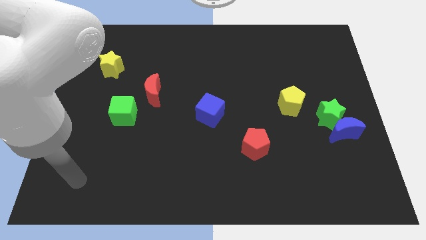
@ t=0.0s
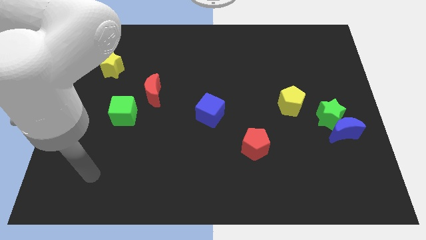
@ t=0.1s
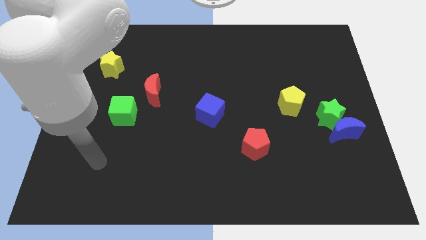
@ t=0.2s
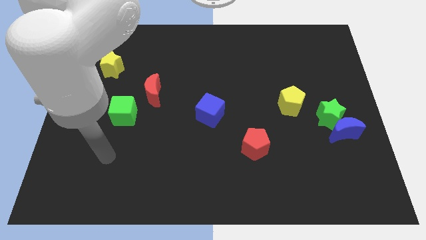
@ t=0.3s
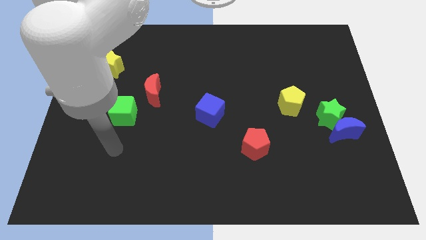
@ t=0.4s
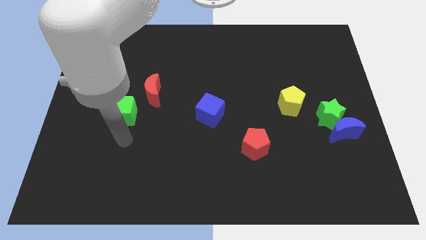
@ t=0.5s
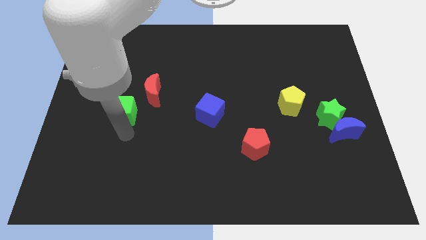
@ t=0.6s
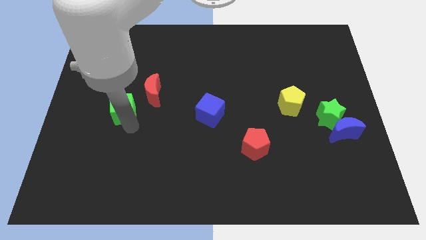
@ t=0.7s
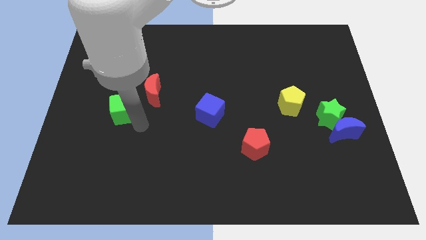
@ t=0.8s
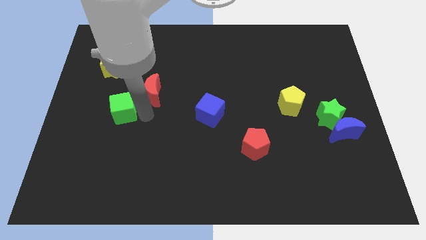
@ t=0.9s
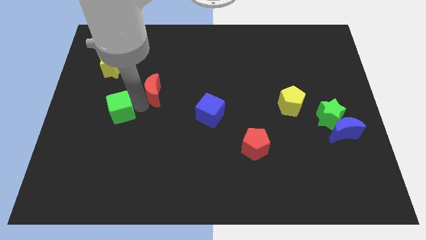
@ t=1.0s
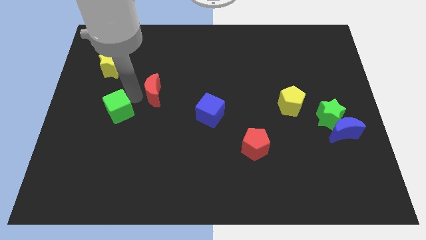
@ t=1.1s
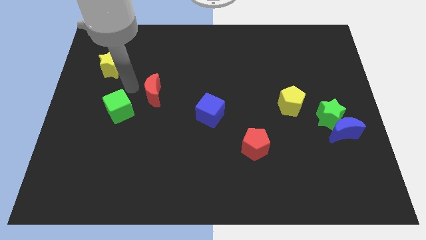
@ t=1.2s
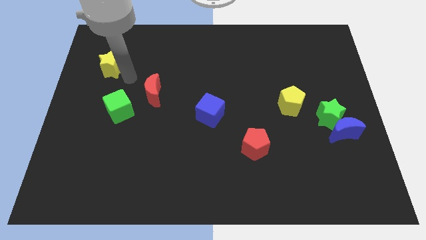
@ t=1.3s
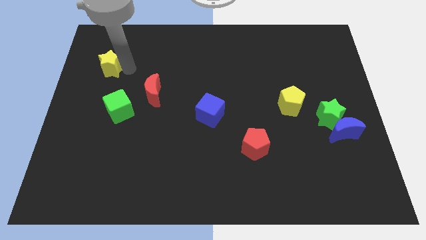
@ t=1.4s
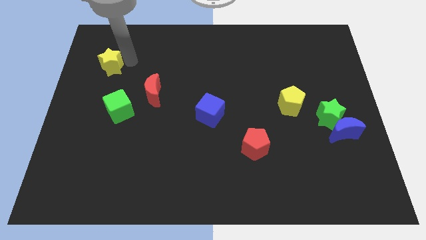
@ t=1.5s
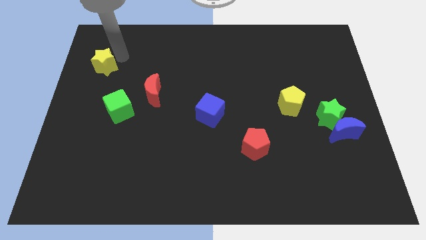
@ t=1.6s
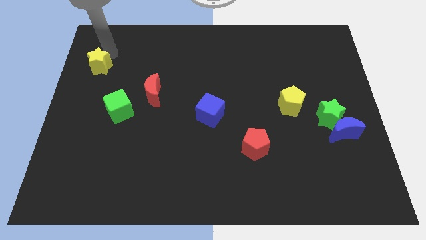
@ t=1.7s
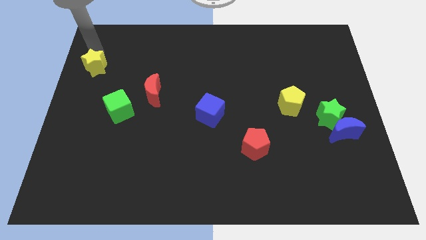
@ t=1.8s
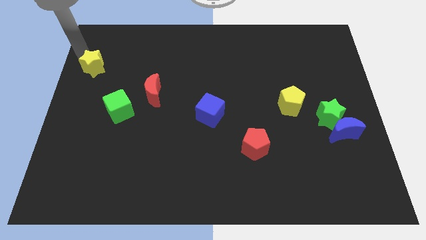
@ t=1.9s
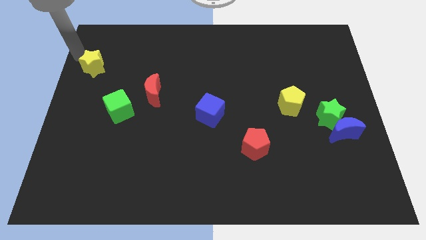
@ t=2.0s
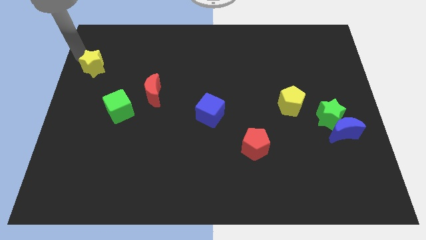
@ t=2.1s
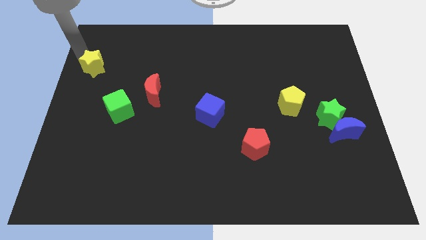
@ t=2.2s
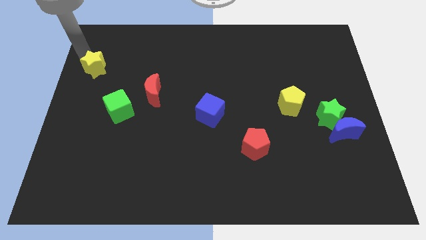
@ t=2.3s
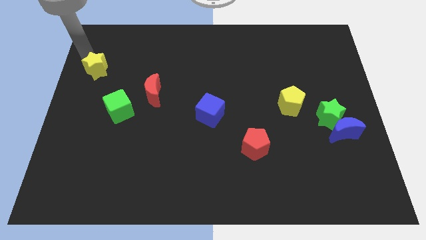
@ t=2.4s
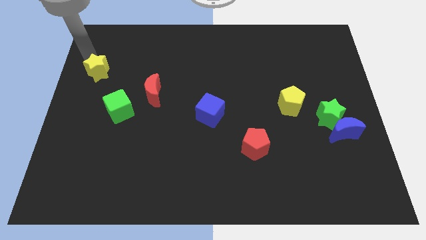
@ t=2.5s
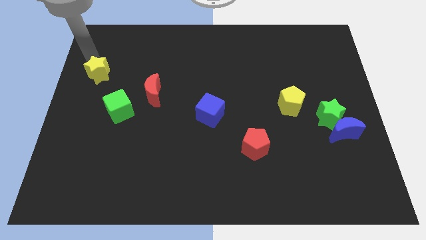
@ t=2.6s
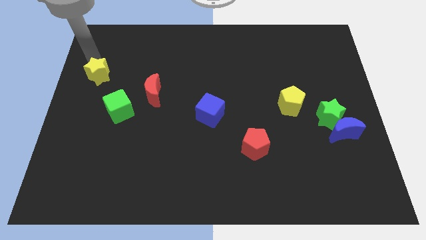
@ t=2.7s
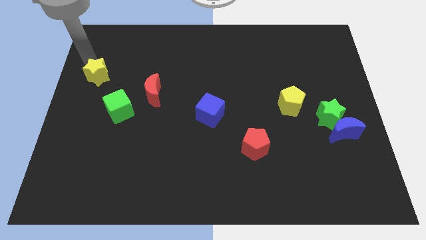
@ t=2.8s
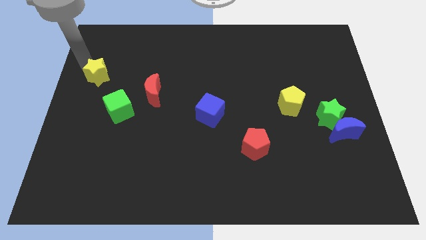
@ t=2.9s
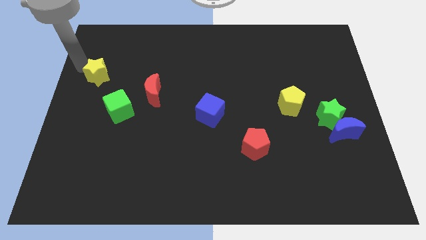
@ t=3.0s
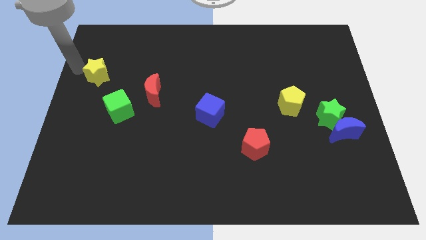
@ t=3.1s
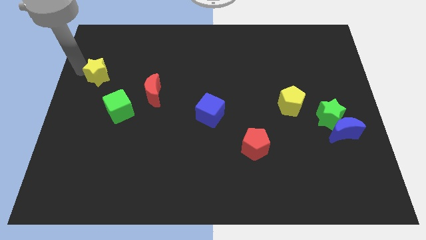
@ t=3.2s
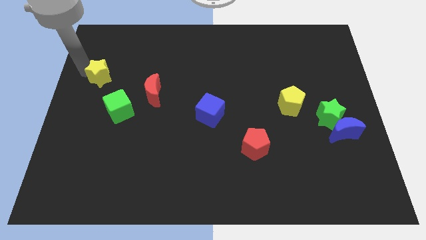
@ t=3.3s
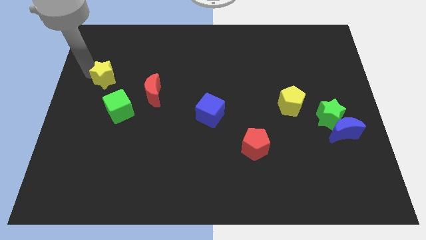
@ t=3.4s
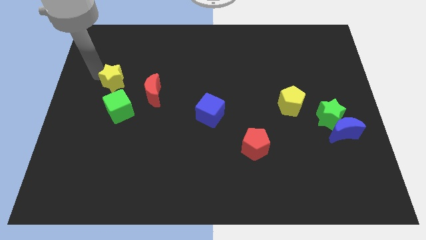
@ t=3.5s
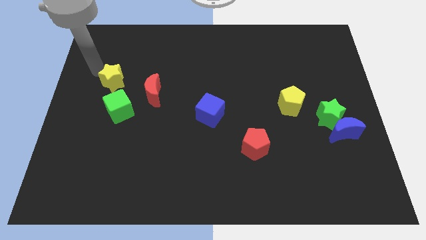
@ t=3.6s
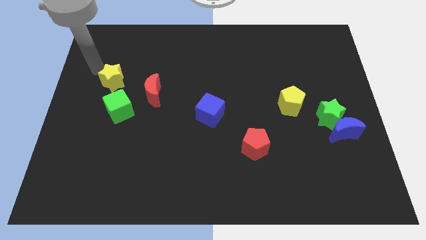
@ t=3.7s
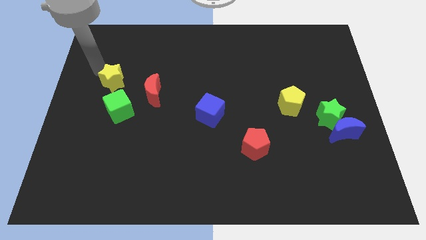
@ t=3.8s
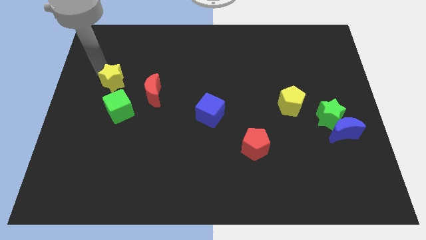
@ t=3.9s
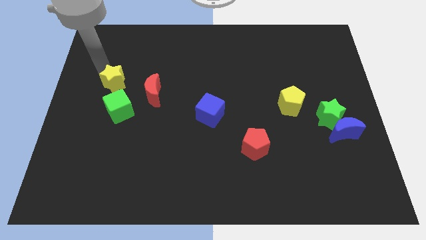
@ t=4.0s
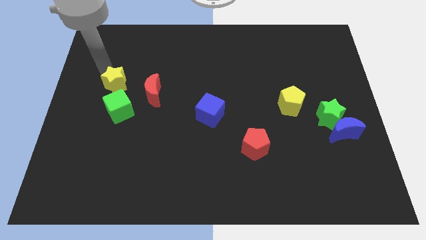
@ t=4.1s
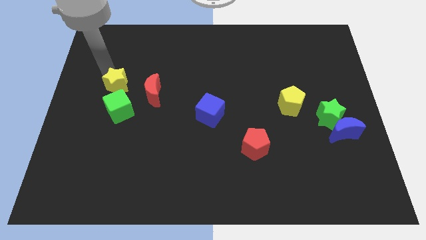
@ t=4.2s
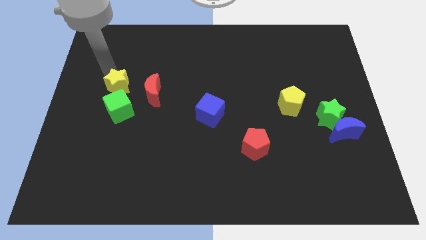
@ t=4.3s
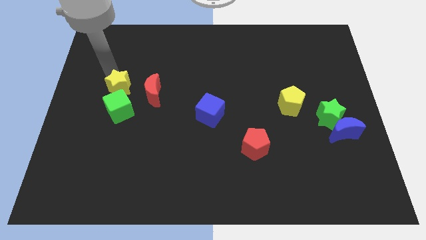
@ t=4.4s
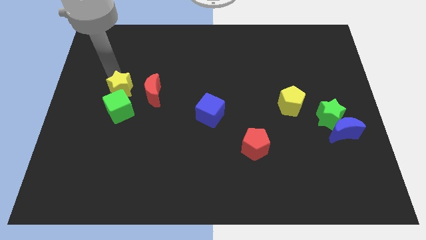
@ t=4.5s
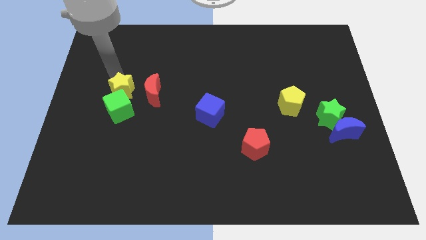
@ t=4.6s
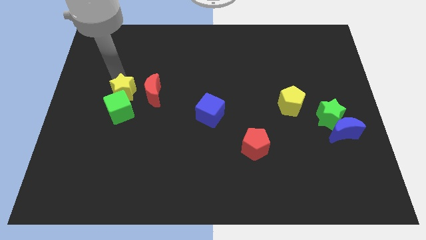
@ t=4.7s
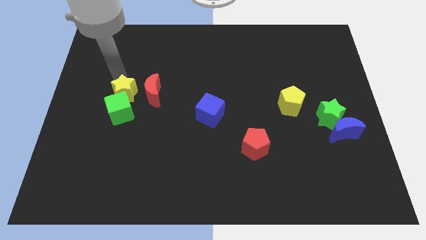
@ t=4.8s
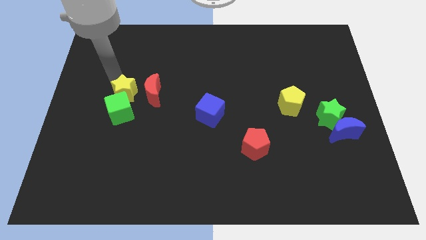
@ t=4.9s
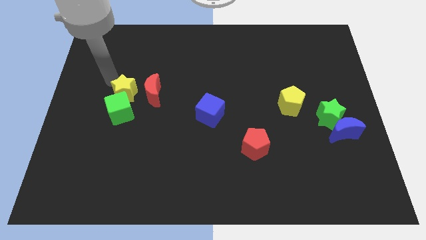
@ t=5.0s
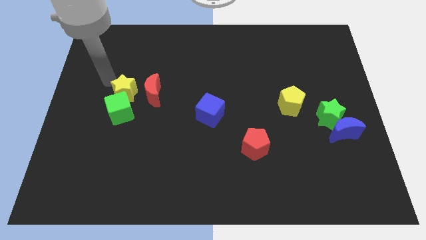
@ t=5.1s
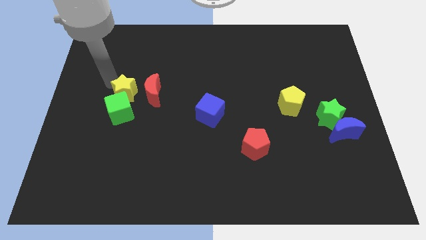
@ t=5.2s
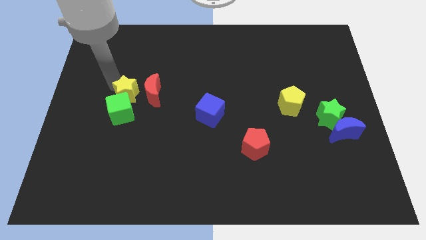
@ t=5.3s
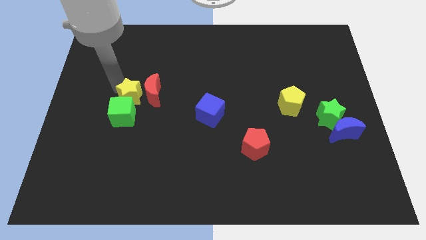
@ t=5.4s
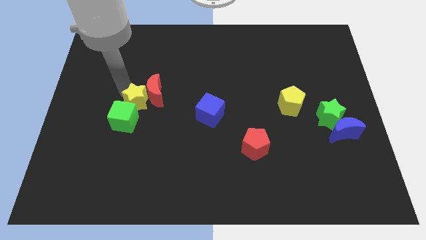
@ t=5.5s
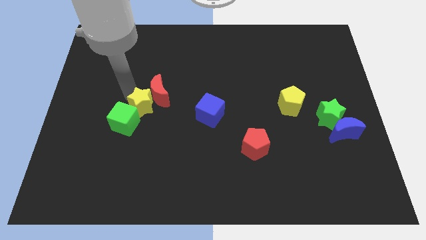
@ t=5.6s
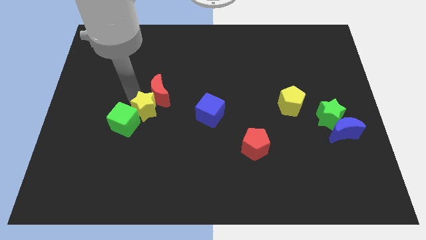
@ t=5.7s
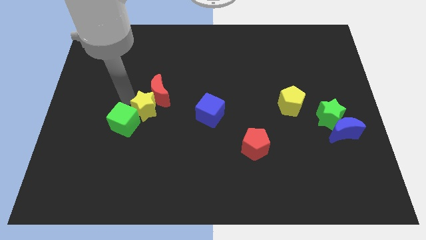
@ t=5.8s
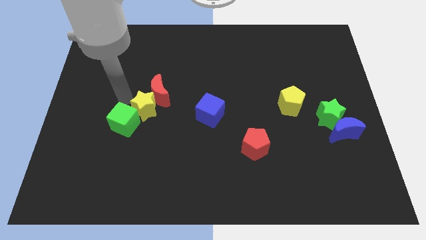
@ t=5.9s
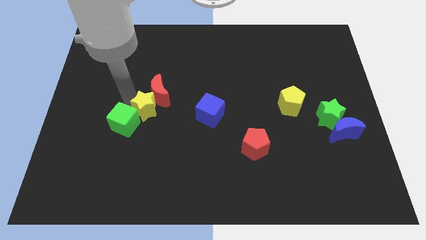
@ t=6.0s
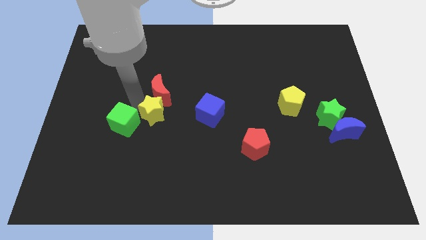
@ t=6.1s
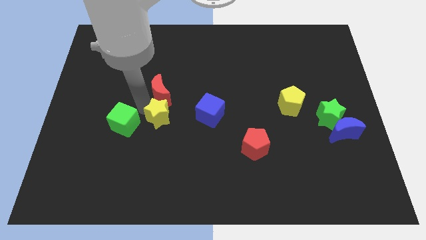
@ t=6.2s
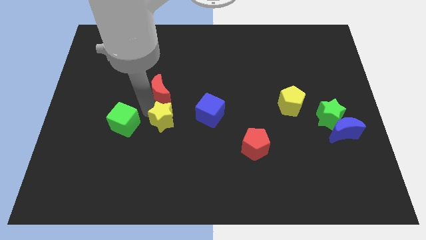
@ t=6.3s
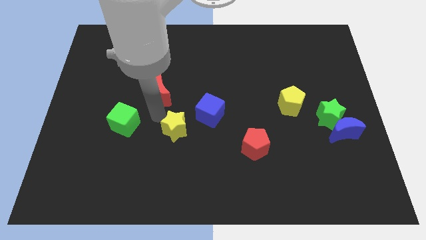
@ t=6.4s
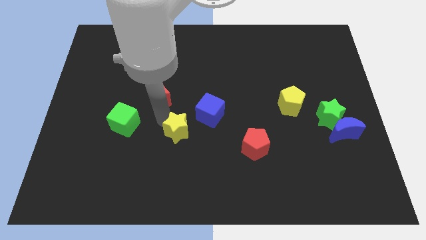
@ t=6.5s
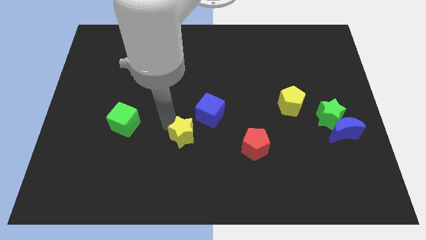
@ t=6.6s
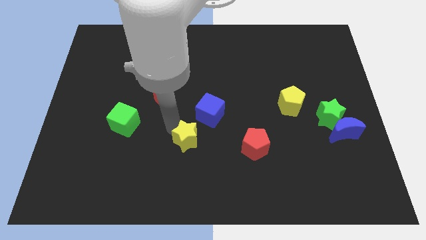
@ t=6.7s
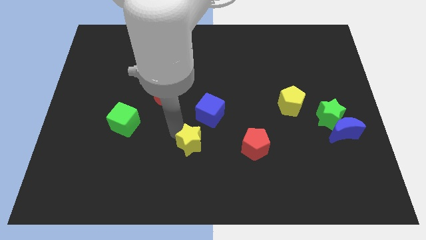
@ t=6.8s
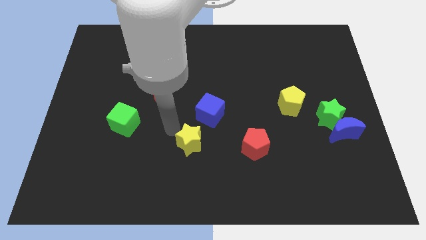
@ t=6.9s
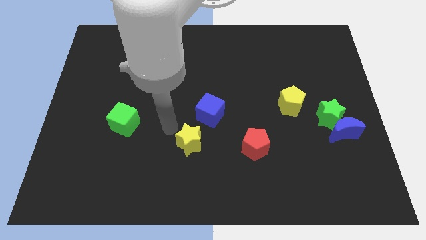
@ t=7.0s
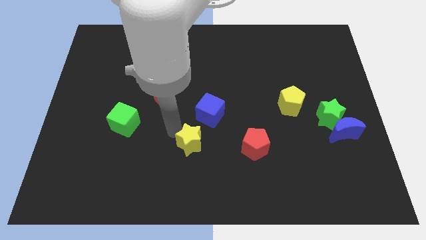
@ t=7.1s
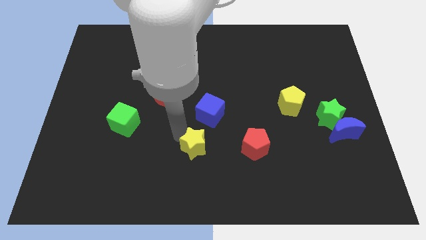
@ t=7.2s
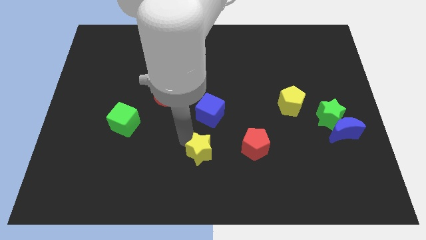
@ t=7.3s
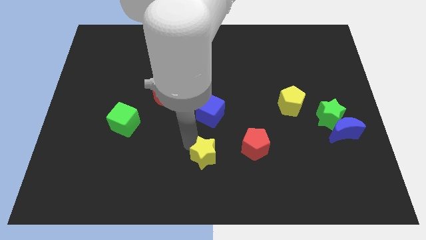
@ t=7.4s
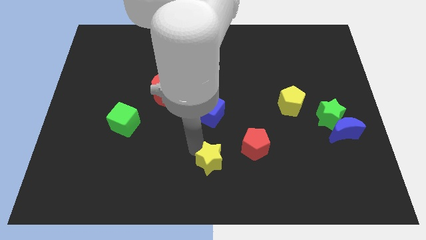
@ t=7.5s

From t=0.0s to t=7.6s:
push the yellow star to the bottom left side of the red pentagon
